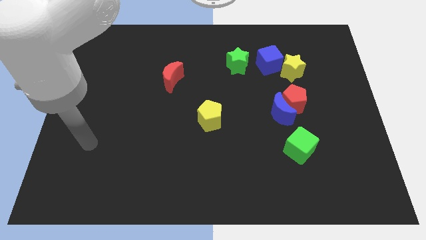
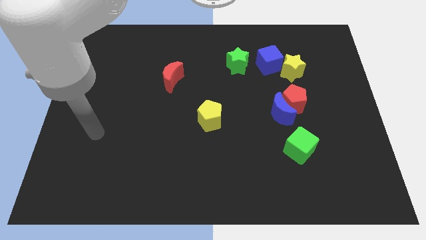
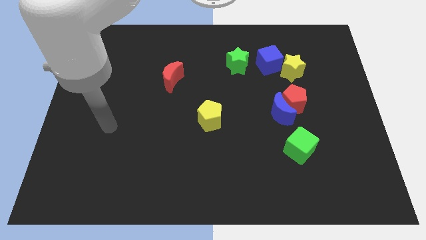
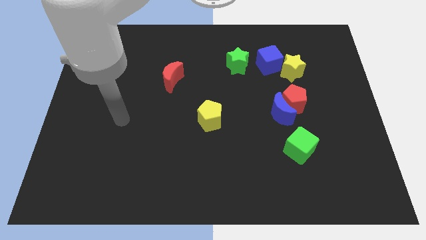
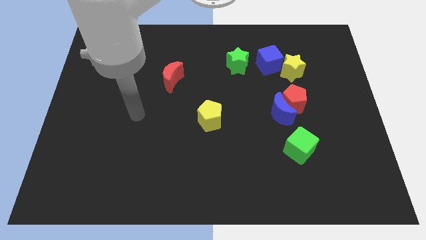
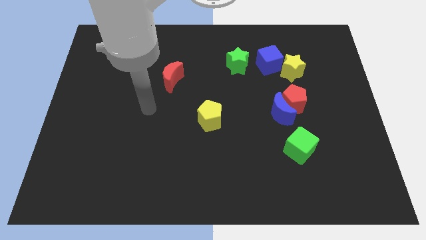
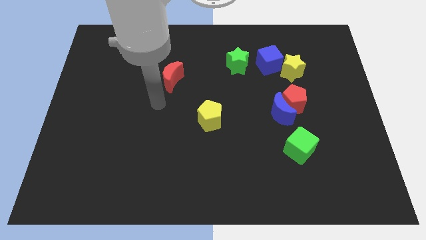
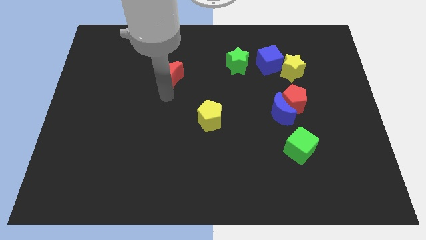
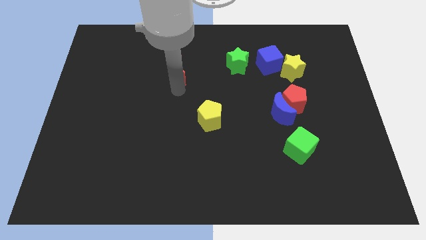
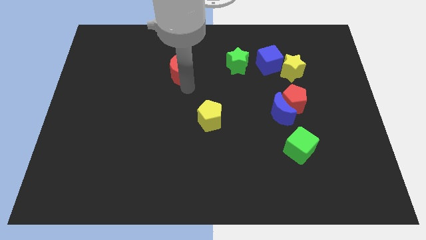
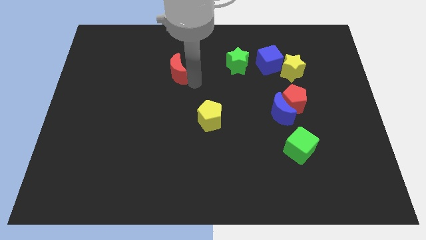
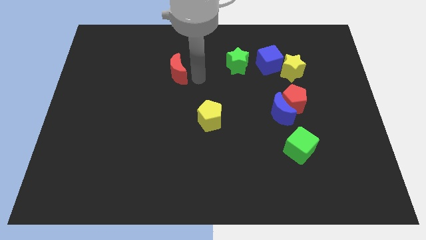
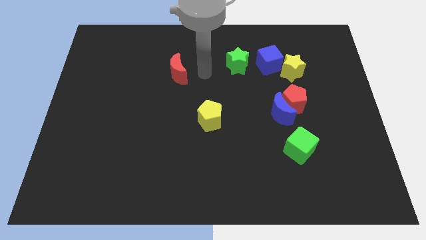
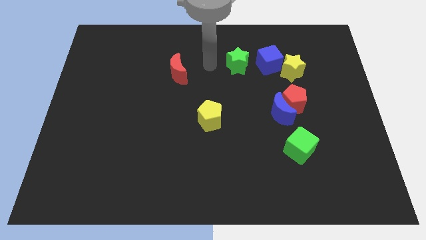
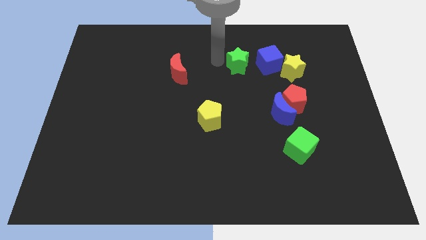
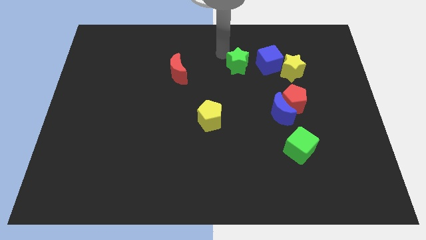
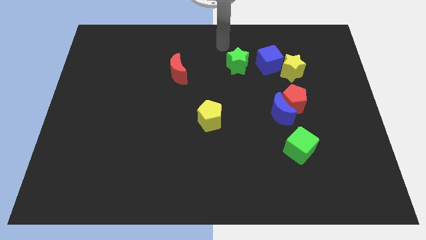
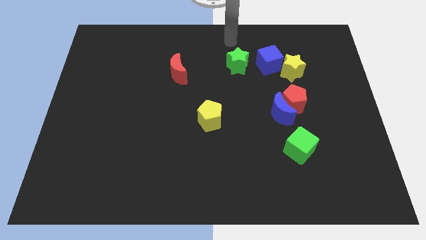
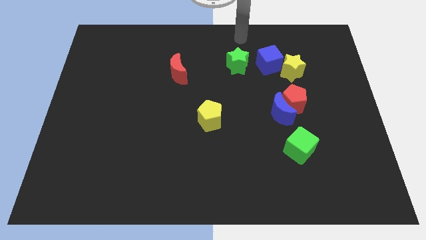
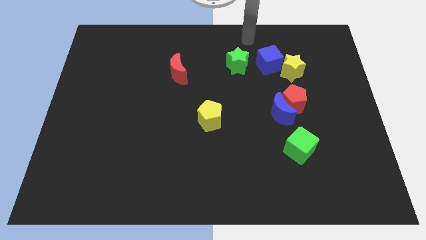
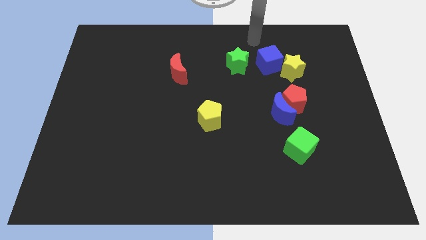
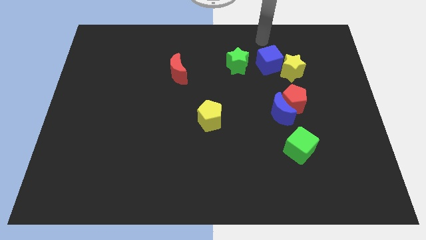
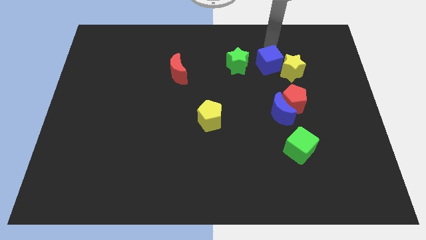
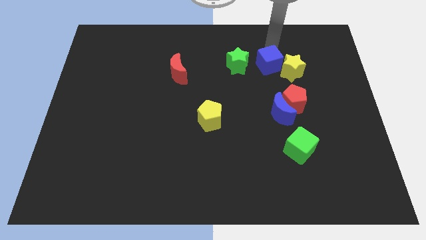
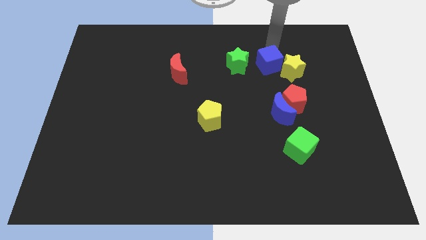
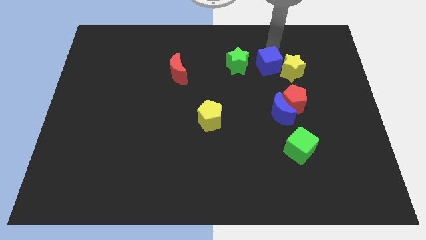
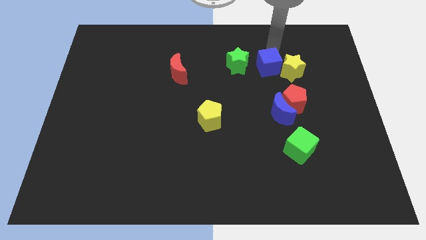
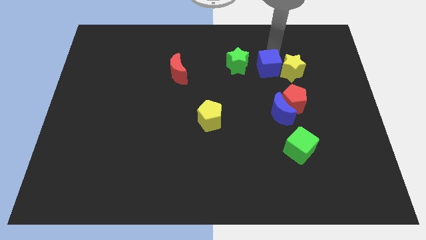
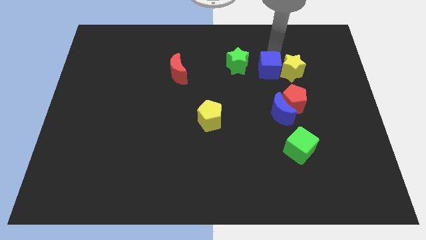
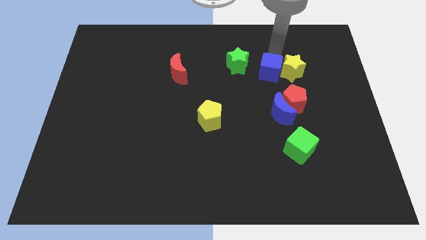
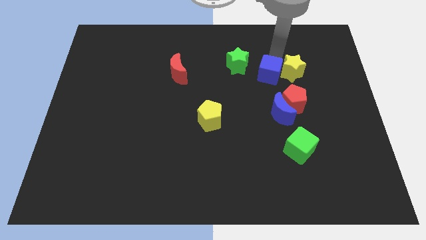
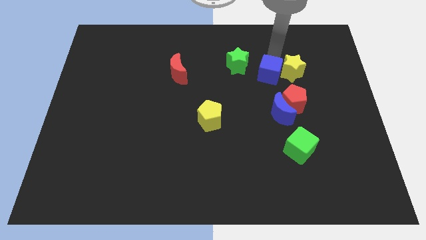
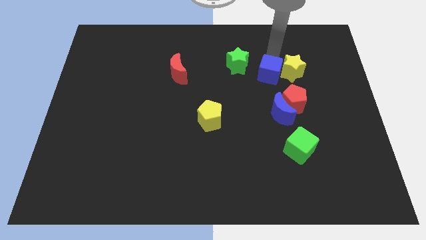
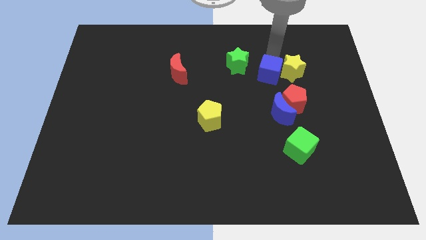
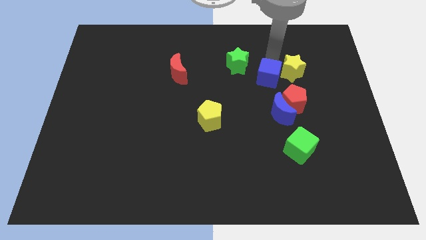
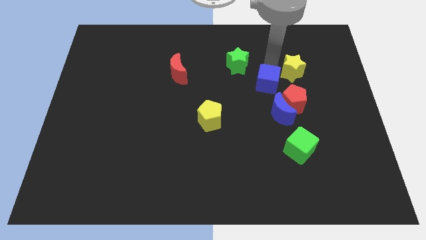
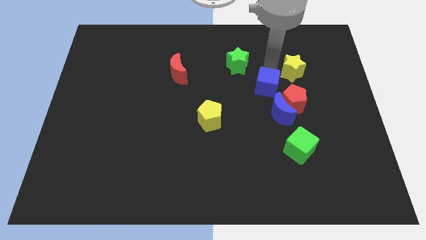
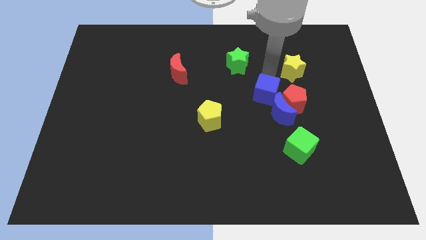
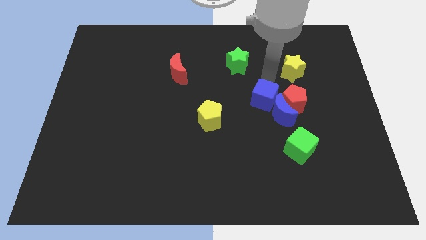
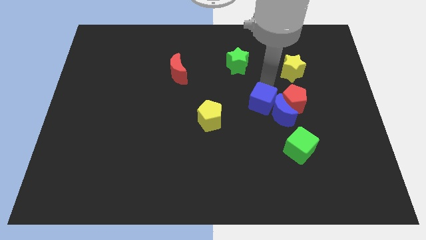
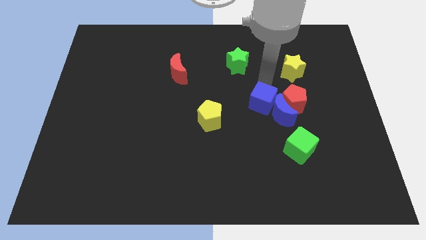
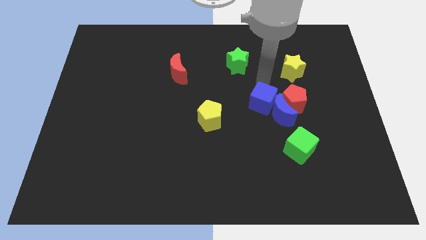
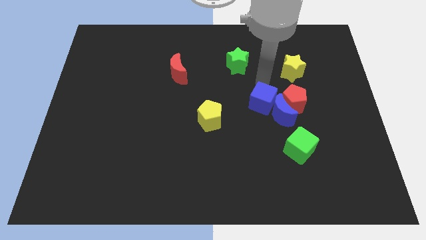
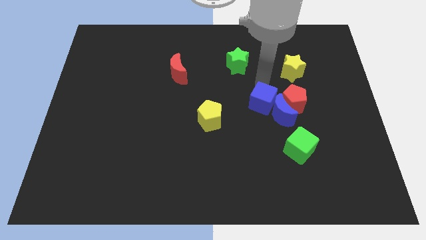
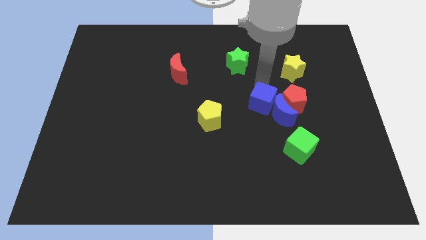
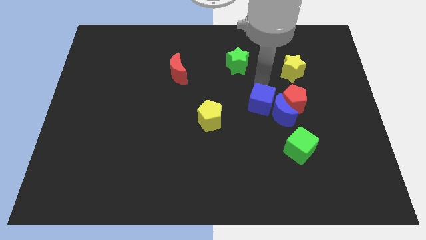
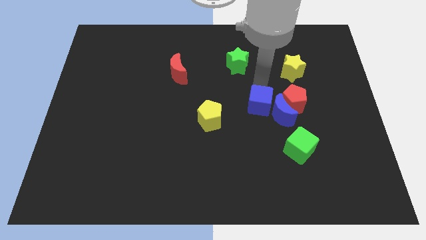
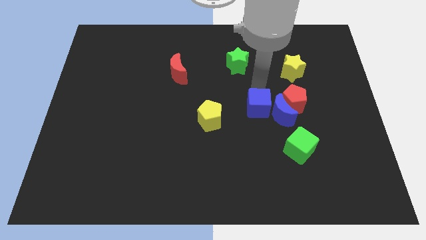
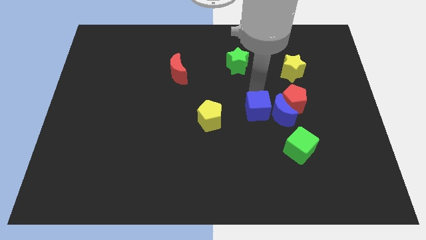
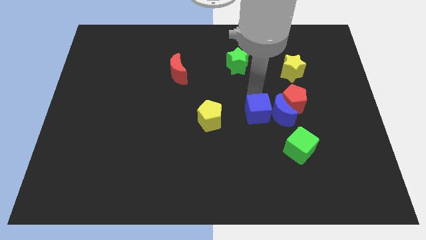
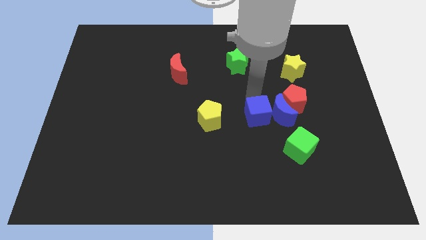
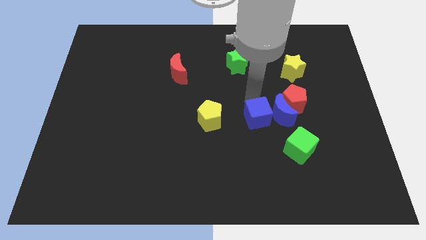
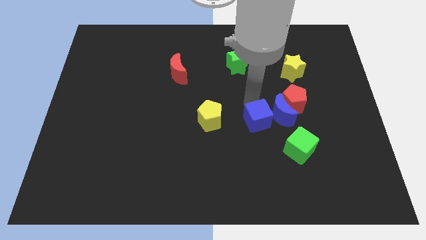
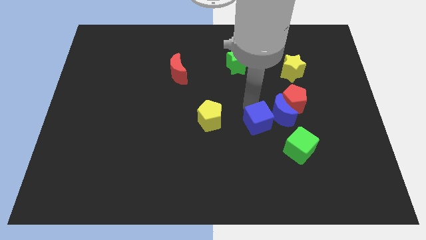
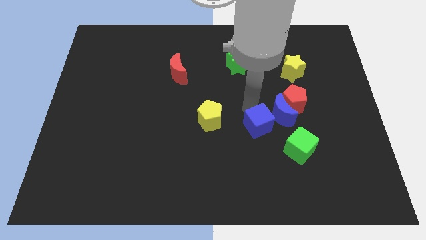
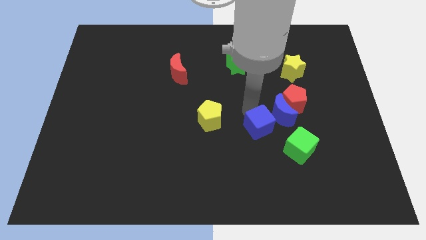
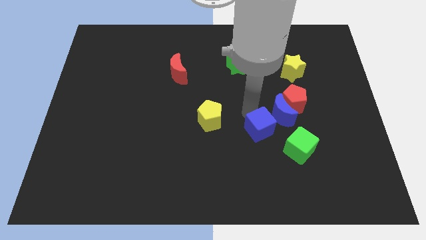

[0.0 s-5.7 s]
slide the blue cube down

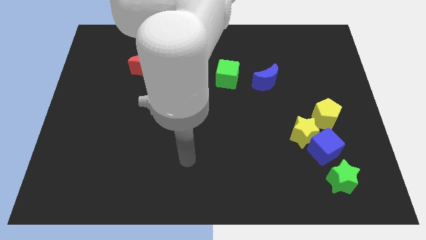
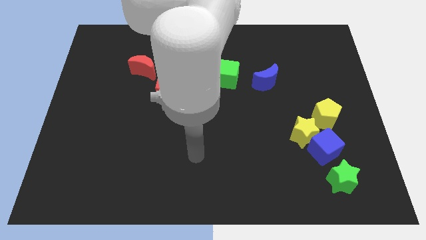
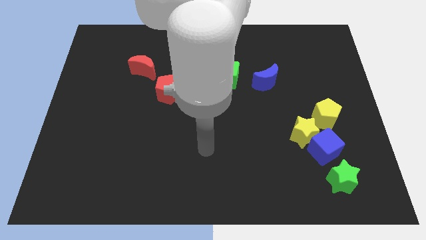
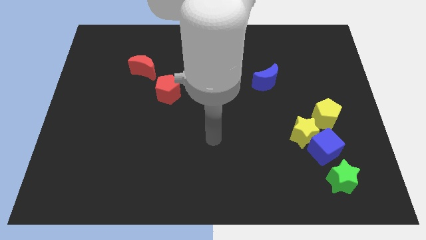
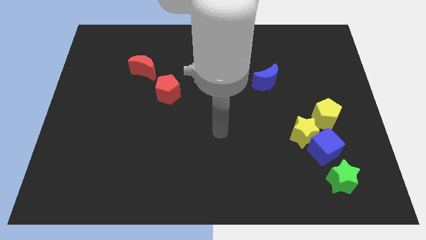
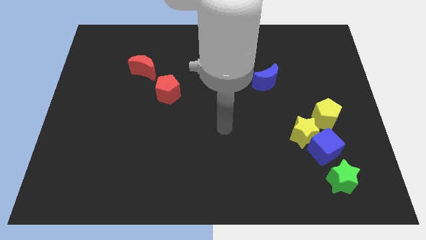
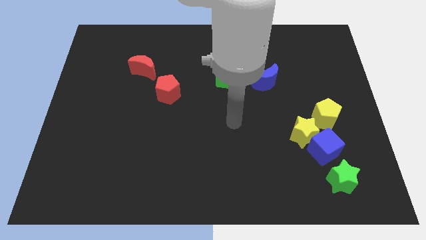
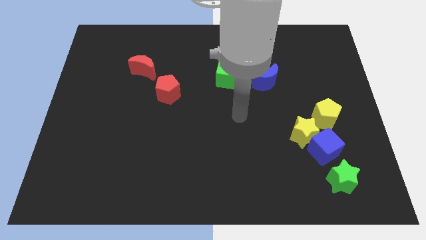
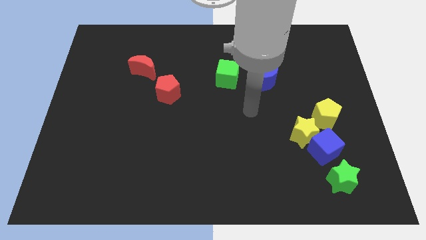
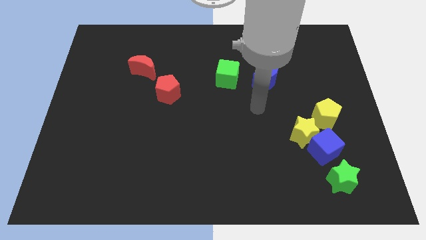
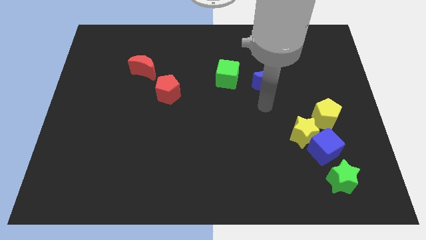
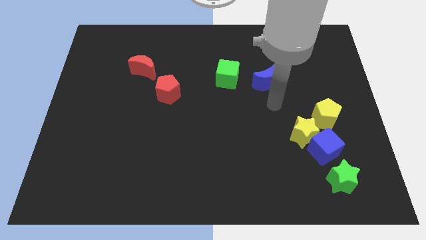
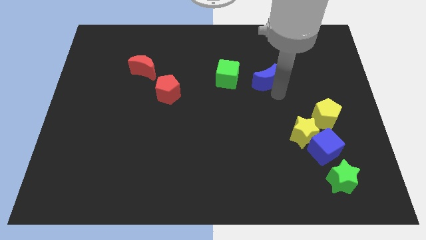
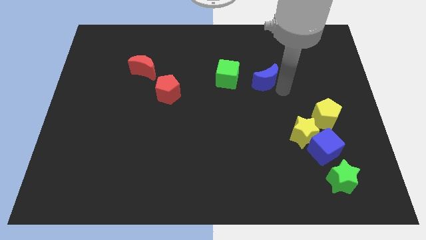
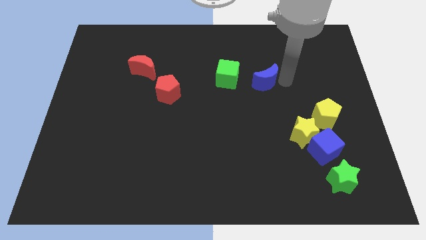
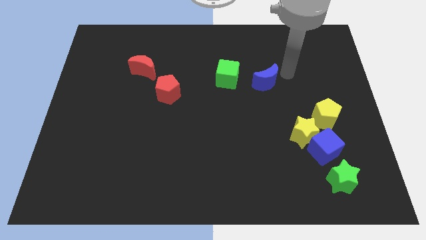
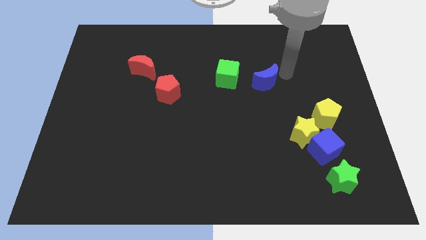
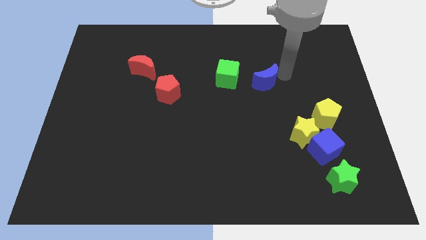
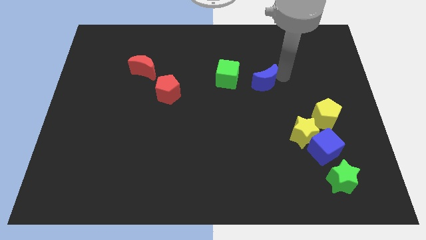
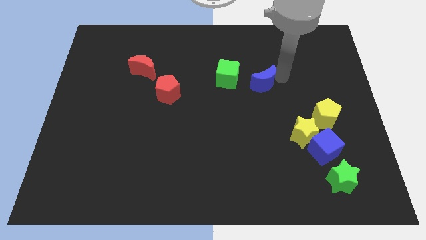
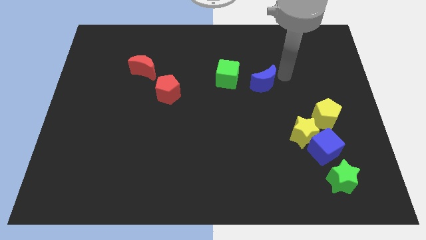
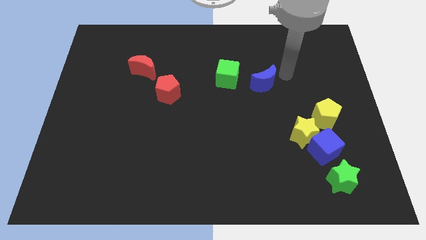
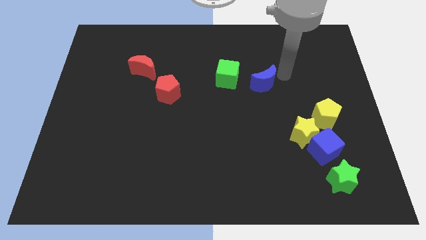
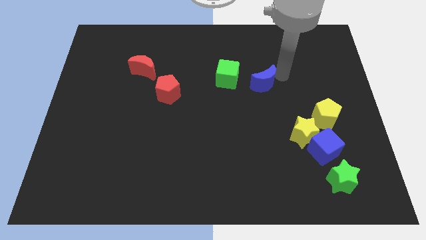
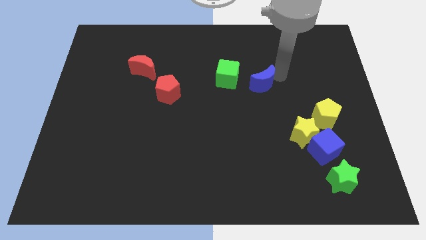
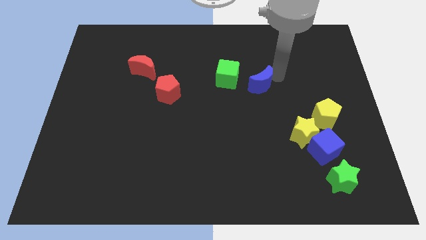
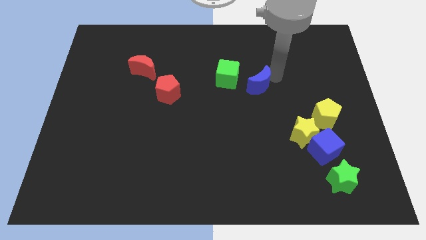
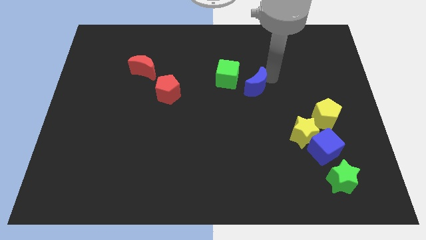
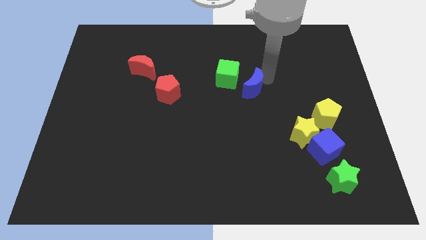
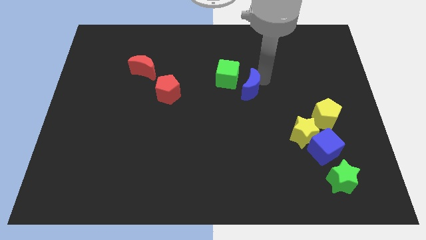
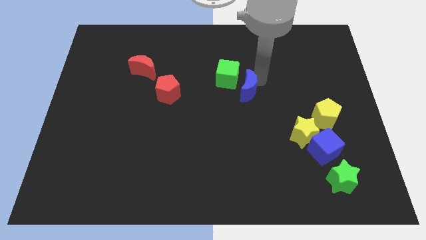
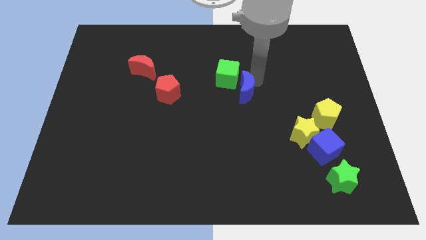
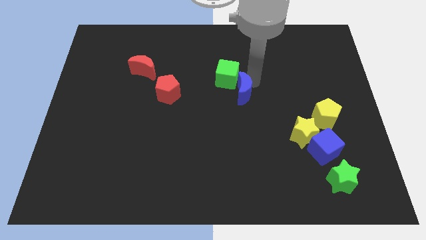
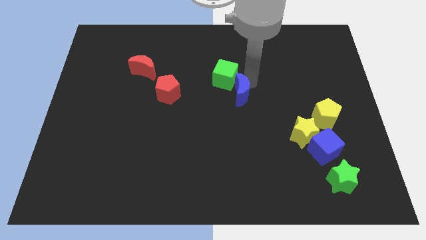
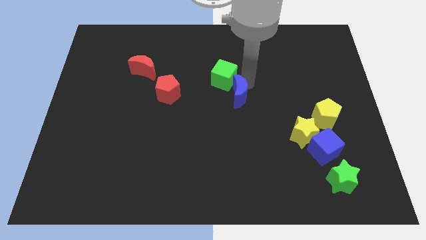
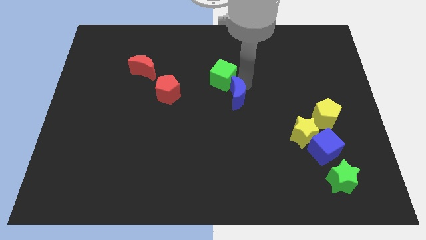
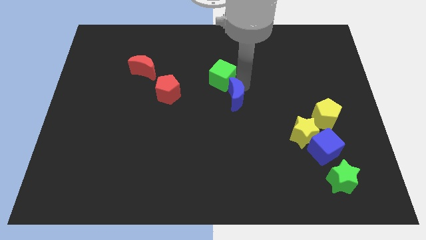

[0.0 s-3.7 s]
slightly slide the blue moon to the left
